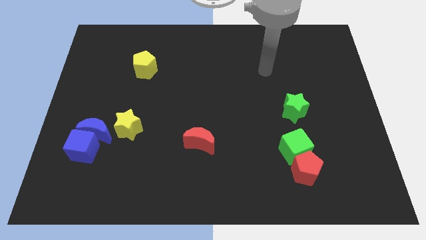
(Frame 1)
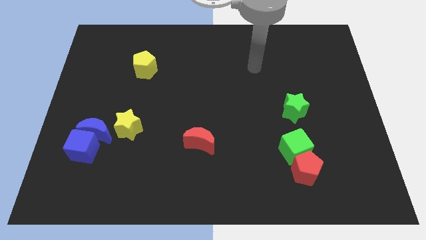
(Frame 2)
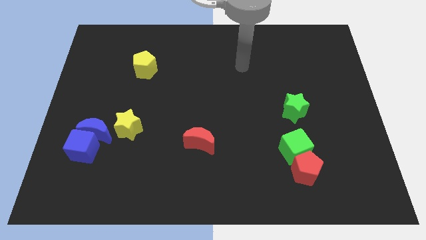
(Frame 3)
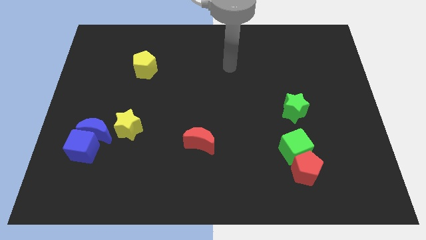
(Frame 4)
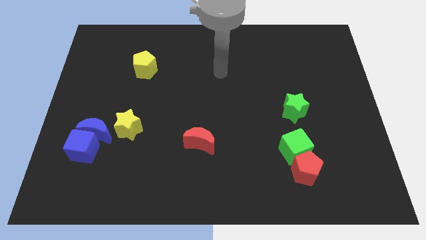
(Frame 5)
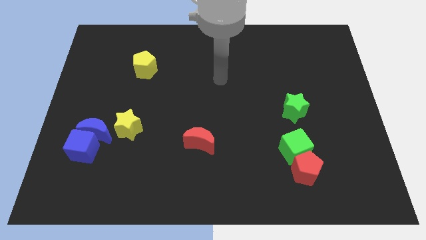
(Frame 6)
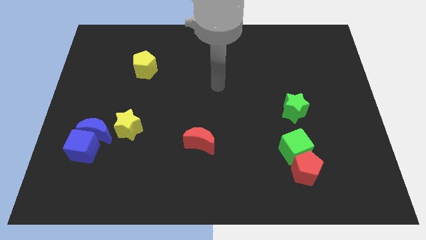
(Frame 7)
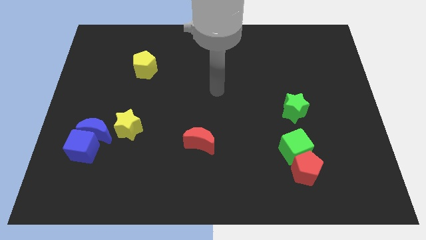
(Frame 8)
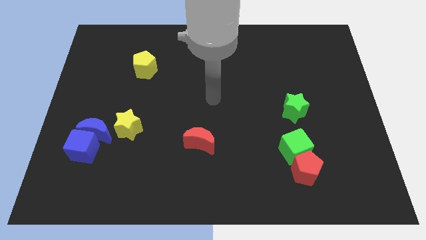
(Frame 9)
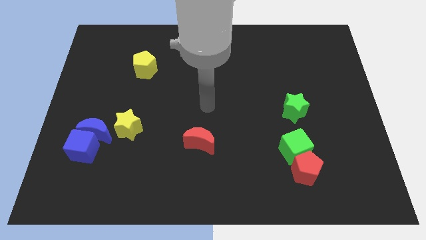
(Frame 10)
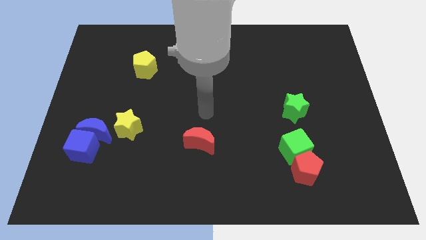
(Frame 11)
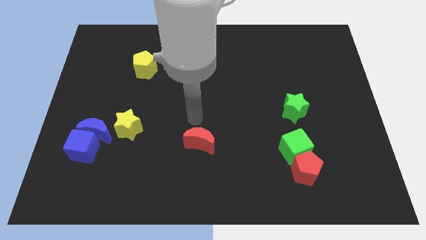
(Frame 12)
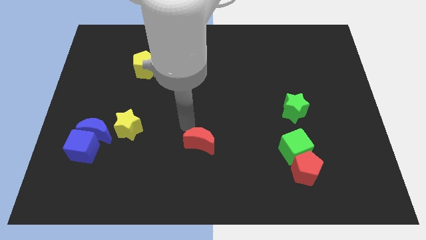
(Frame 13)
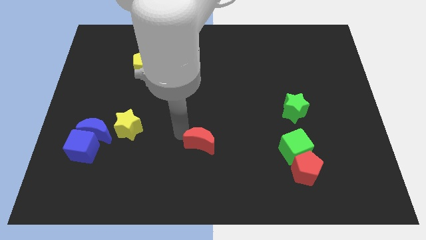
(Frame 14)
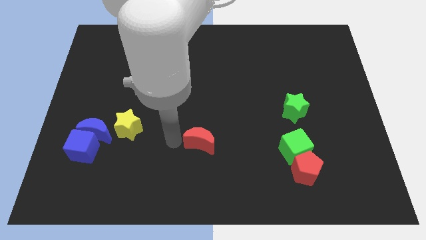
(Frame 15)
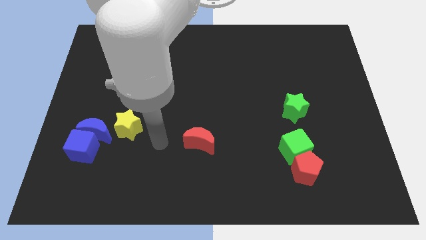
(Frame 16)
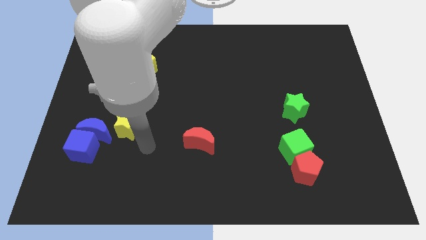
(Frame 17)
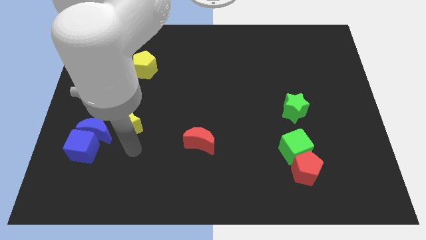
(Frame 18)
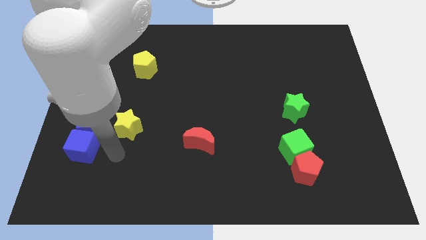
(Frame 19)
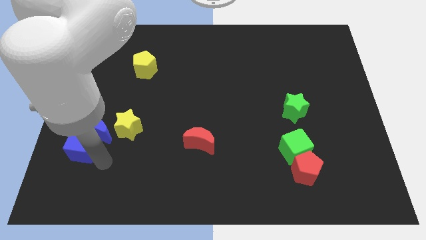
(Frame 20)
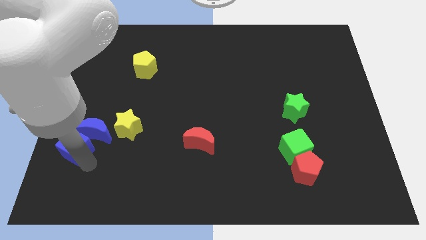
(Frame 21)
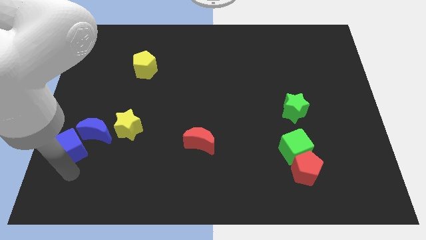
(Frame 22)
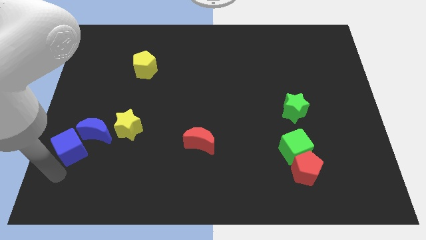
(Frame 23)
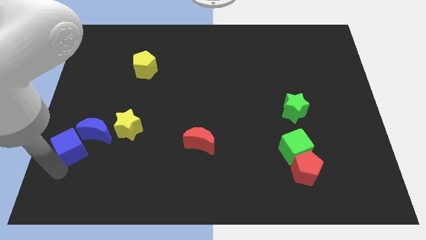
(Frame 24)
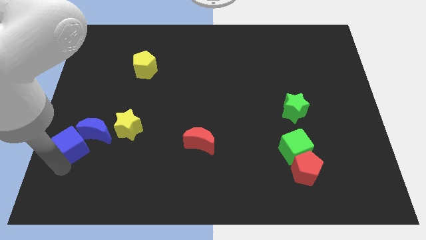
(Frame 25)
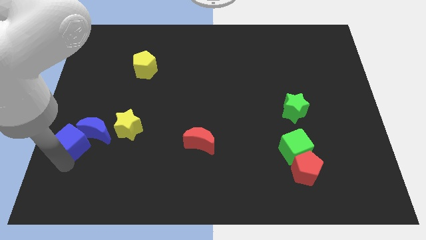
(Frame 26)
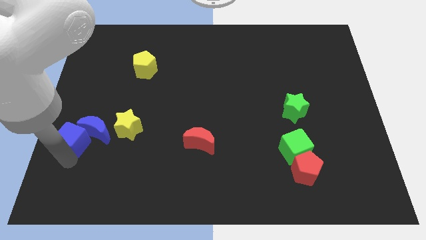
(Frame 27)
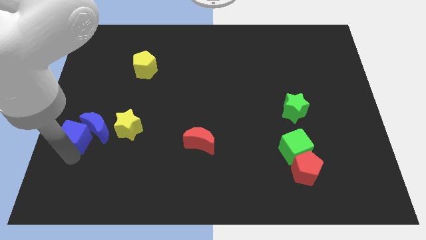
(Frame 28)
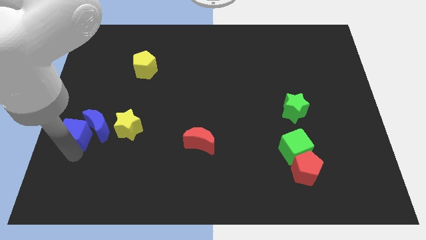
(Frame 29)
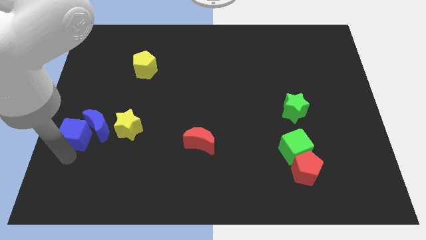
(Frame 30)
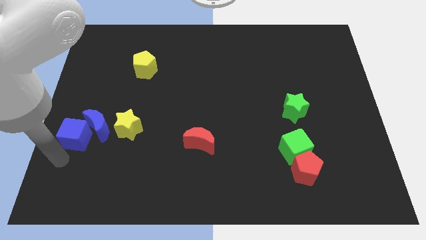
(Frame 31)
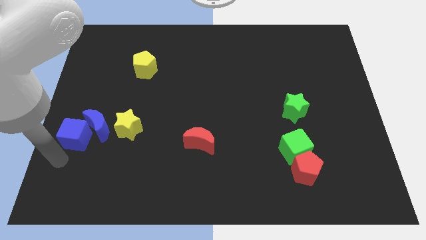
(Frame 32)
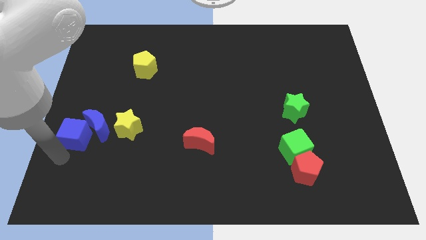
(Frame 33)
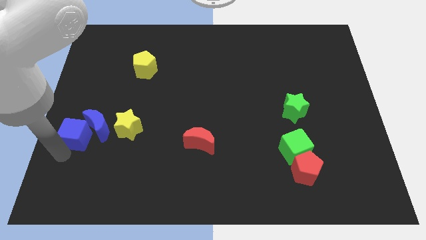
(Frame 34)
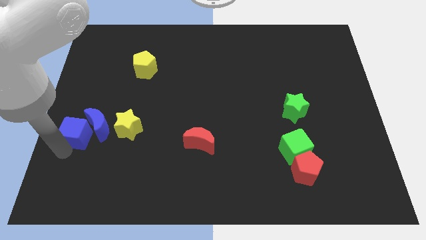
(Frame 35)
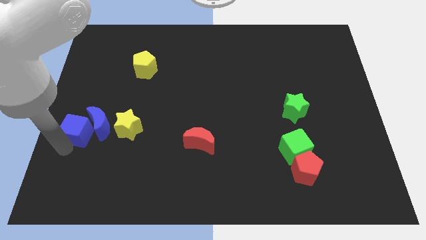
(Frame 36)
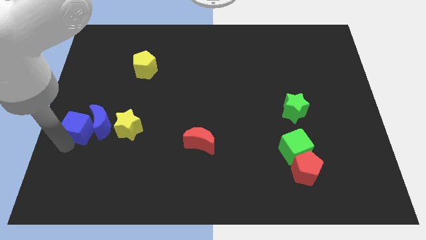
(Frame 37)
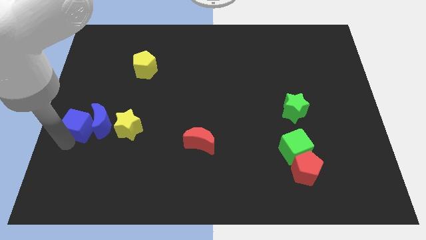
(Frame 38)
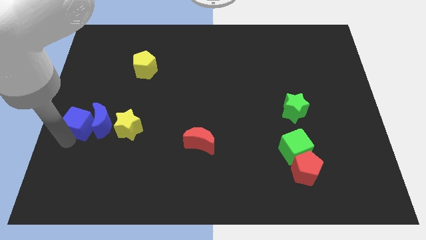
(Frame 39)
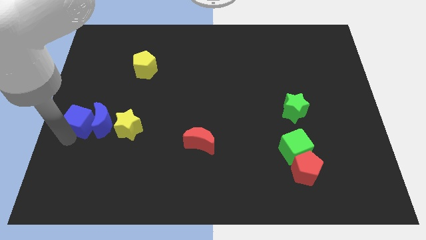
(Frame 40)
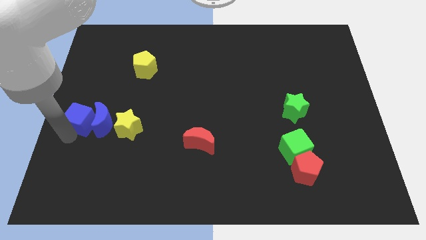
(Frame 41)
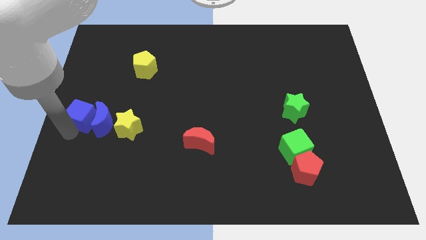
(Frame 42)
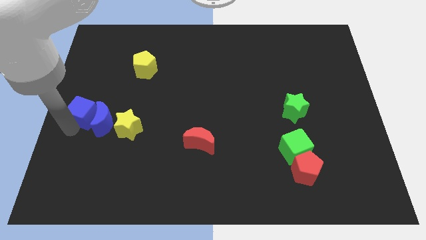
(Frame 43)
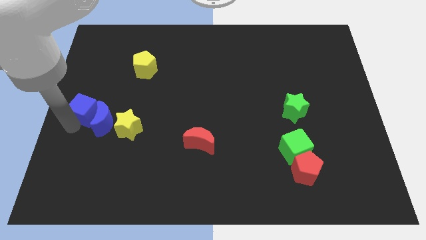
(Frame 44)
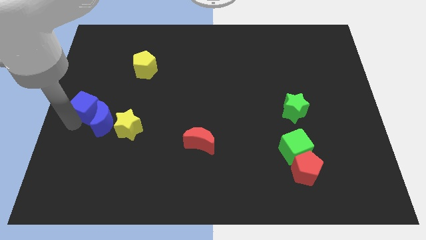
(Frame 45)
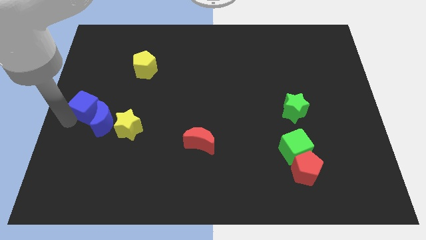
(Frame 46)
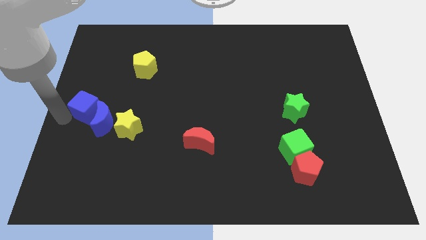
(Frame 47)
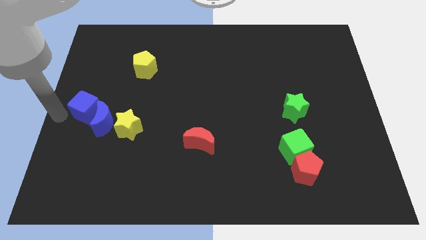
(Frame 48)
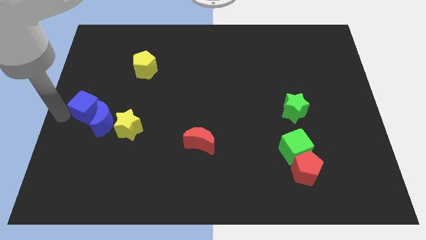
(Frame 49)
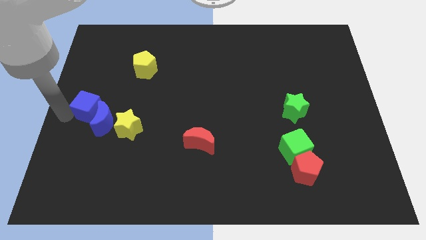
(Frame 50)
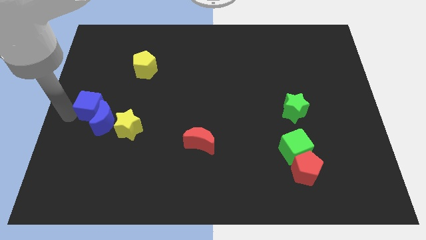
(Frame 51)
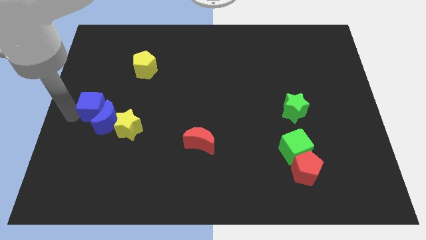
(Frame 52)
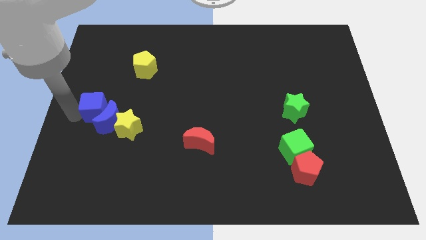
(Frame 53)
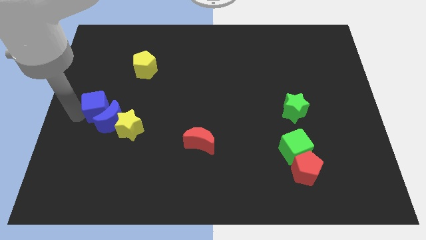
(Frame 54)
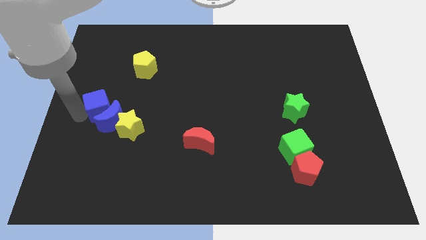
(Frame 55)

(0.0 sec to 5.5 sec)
move the blue cube diagonally up and right somewhat

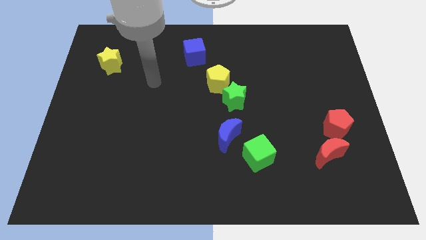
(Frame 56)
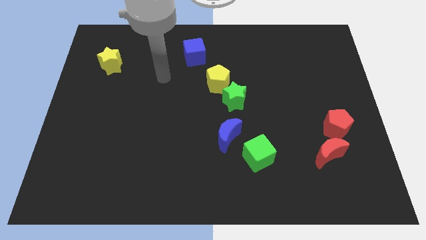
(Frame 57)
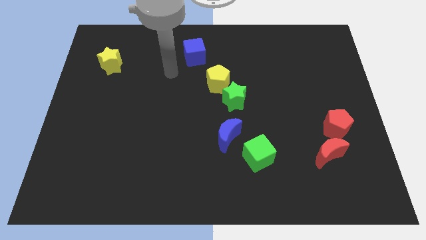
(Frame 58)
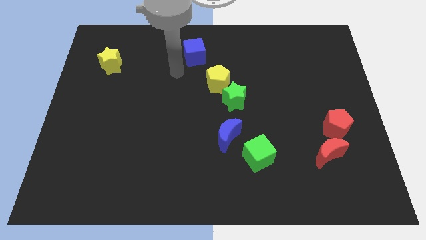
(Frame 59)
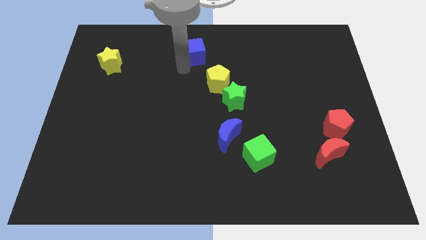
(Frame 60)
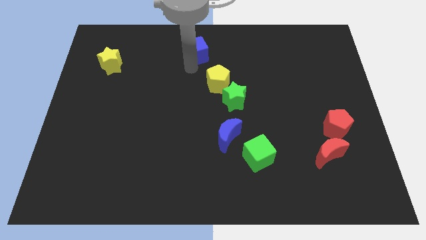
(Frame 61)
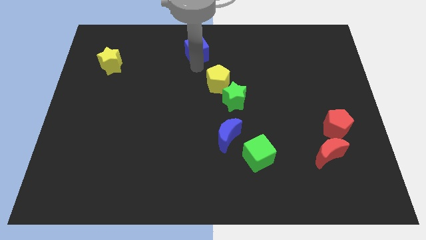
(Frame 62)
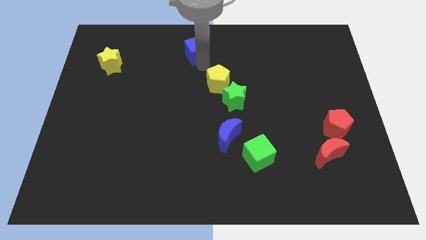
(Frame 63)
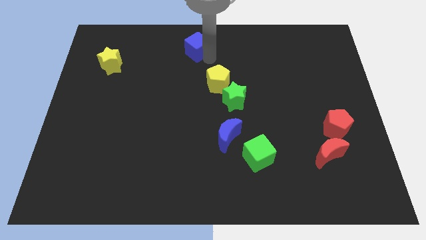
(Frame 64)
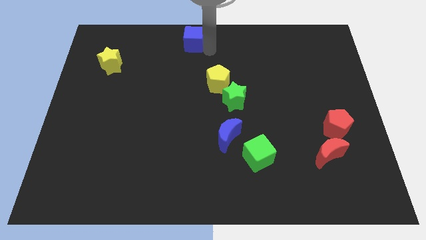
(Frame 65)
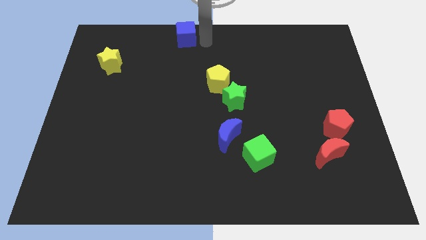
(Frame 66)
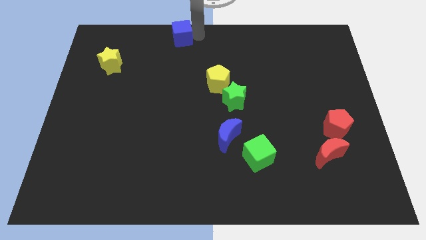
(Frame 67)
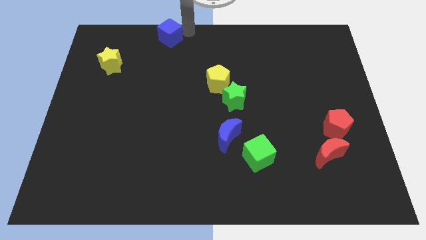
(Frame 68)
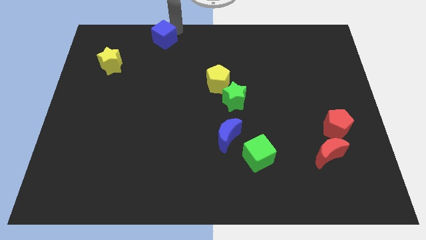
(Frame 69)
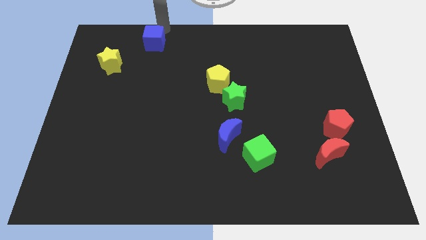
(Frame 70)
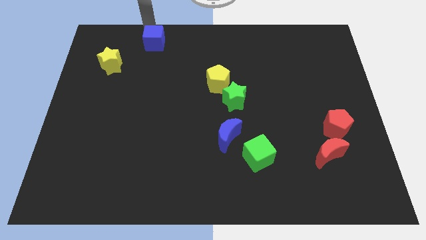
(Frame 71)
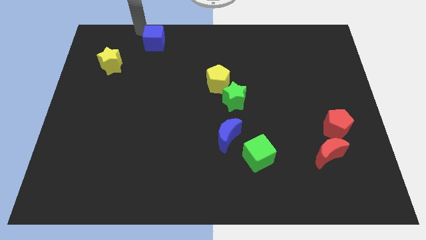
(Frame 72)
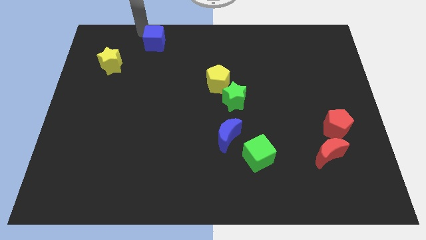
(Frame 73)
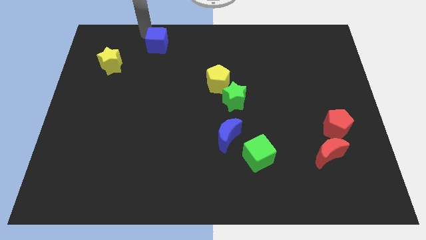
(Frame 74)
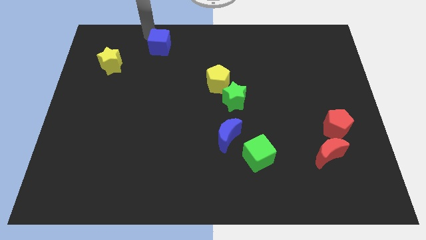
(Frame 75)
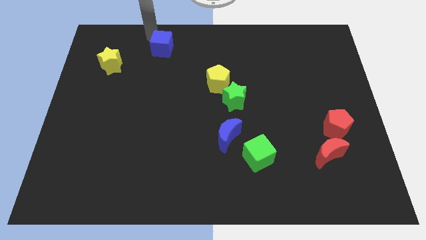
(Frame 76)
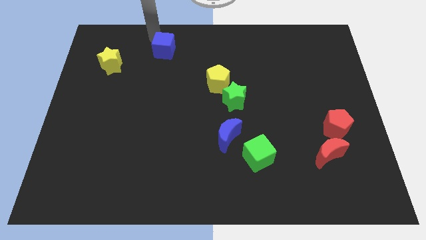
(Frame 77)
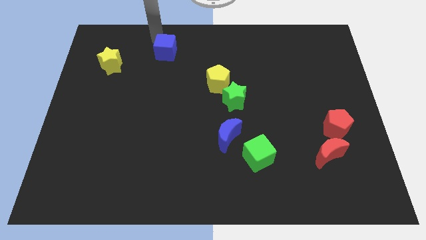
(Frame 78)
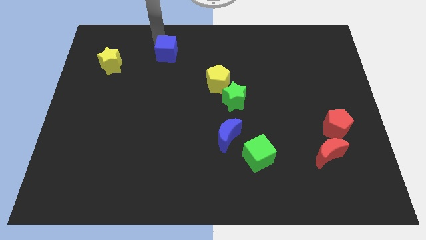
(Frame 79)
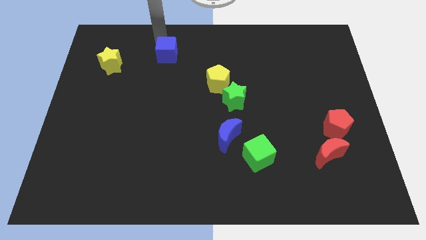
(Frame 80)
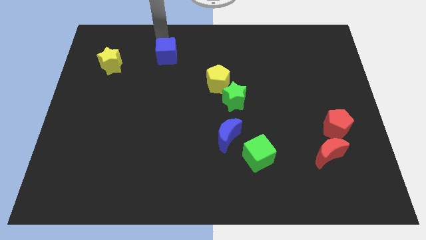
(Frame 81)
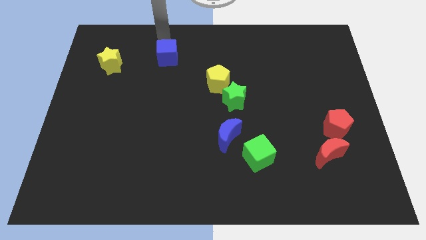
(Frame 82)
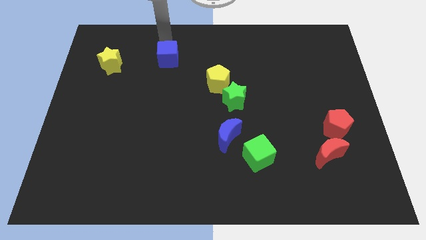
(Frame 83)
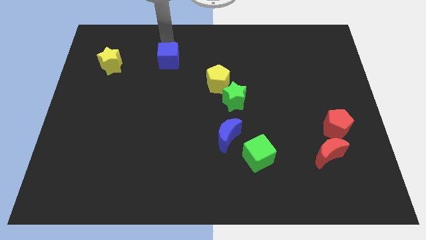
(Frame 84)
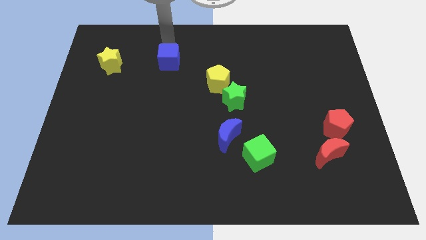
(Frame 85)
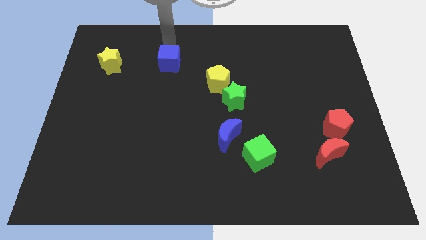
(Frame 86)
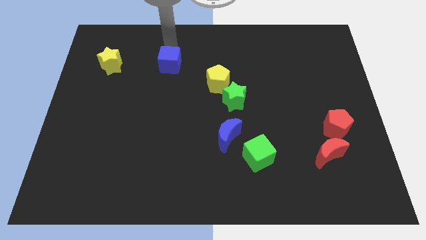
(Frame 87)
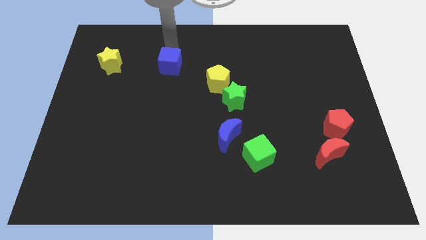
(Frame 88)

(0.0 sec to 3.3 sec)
push the blue cube a little bit downwards and left diagonally
